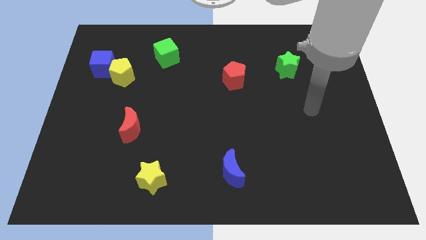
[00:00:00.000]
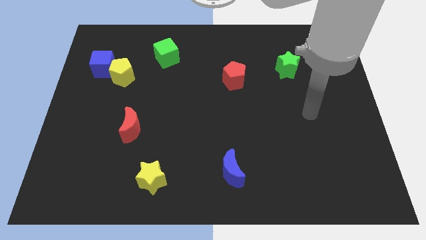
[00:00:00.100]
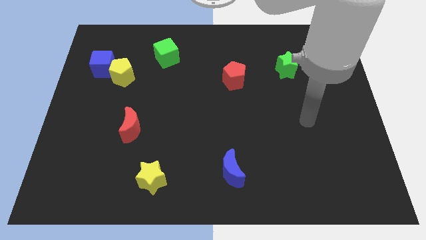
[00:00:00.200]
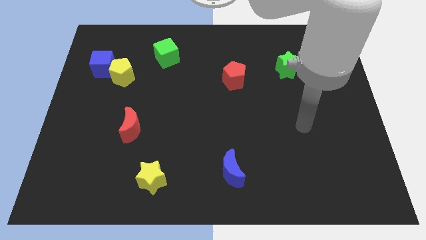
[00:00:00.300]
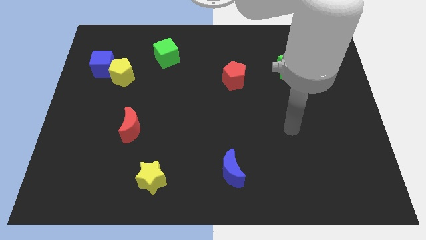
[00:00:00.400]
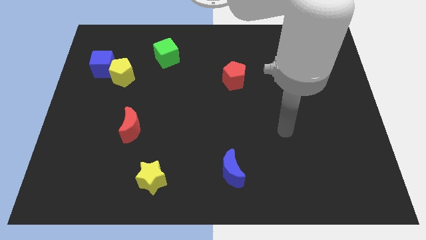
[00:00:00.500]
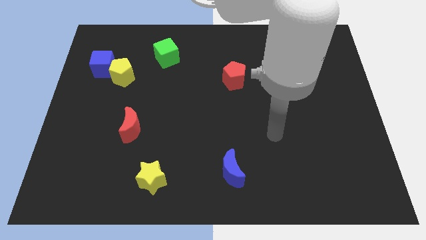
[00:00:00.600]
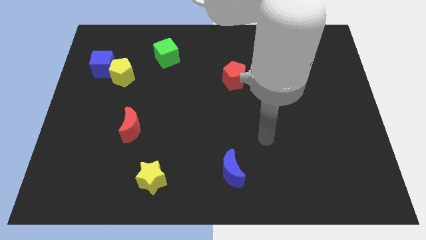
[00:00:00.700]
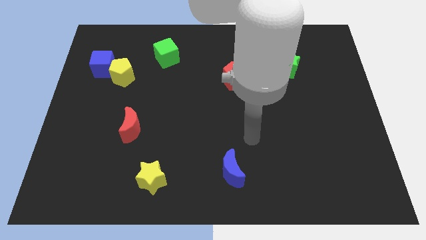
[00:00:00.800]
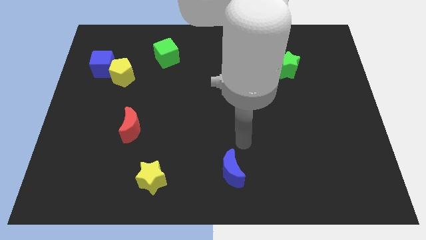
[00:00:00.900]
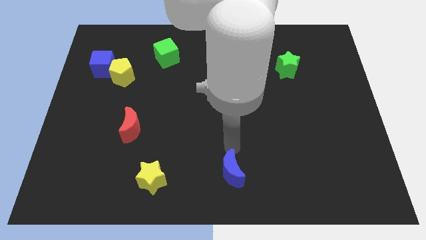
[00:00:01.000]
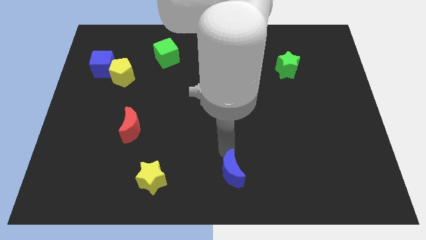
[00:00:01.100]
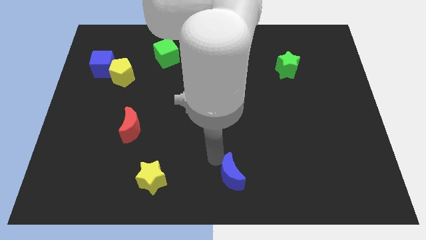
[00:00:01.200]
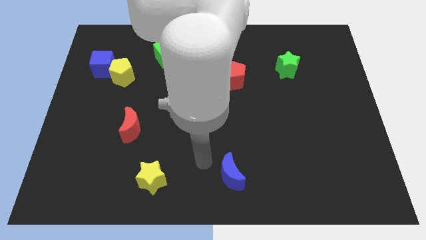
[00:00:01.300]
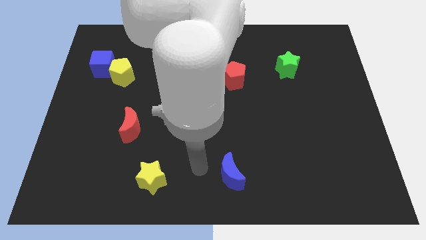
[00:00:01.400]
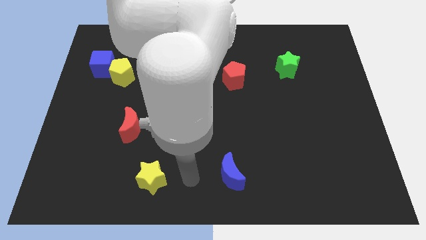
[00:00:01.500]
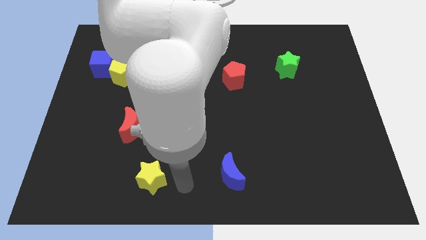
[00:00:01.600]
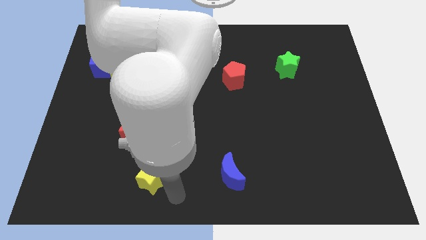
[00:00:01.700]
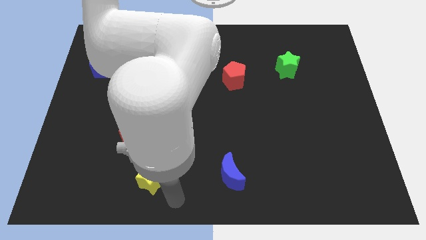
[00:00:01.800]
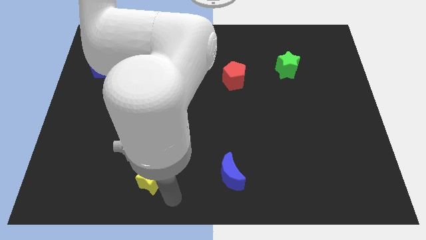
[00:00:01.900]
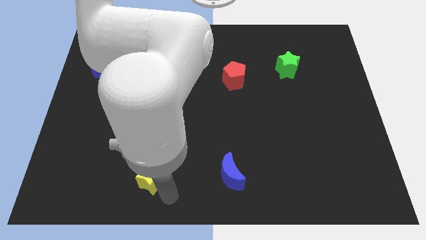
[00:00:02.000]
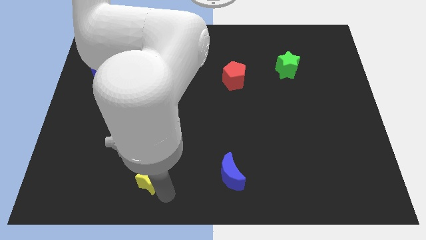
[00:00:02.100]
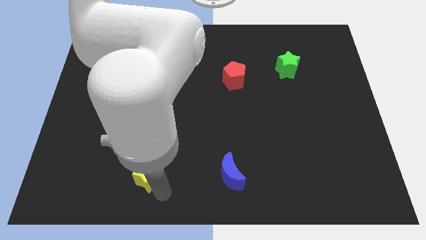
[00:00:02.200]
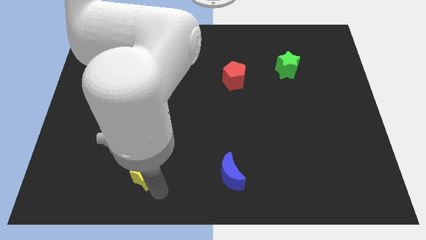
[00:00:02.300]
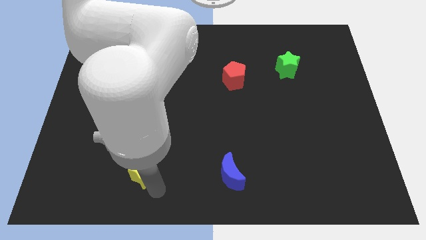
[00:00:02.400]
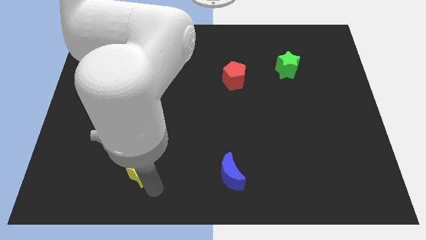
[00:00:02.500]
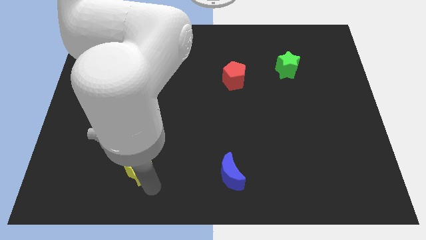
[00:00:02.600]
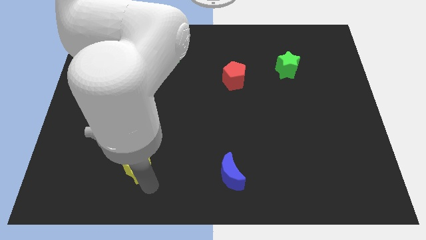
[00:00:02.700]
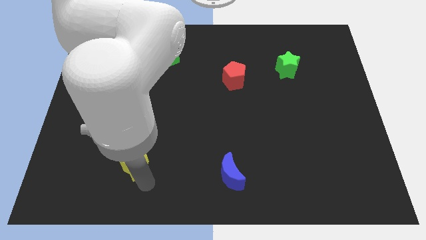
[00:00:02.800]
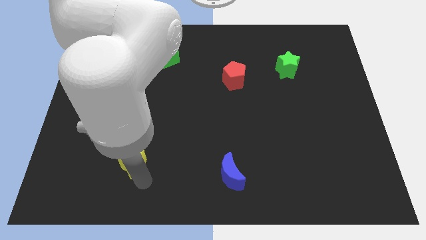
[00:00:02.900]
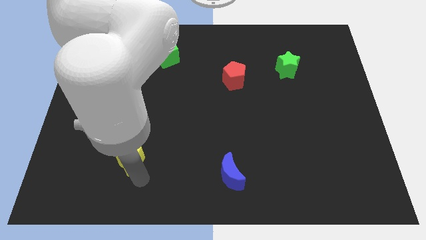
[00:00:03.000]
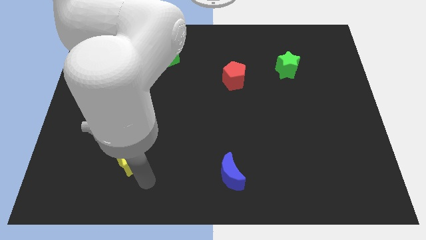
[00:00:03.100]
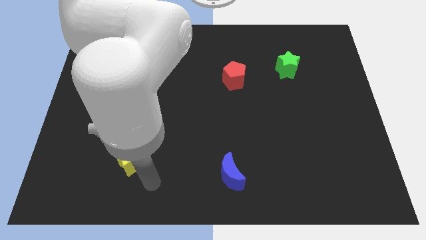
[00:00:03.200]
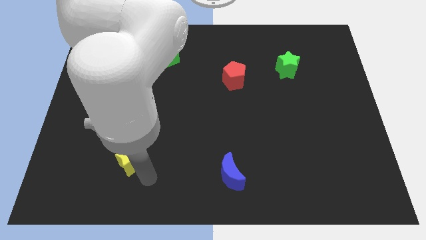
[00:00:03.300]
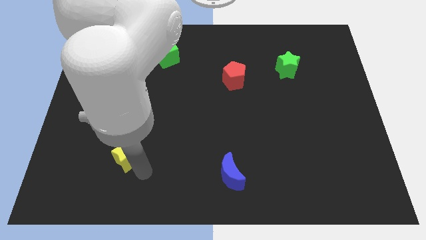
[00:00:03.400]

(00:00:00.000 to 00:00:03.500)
slightly move the yellow star diagonally up and to the left

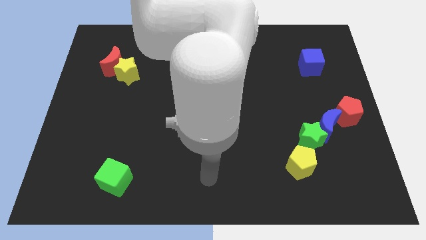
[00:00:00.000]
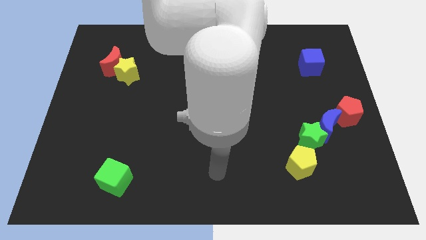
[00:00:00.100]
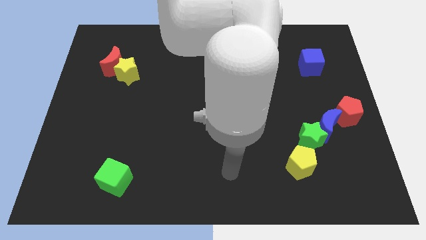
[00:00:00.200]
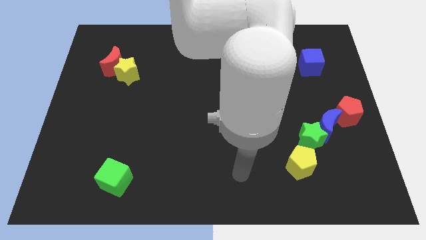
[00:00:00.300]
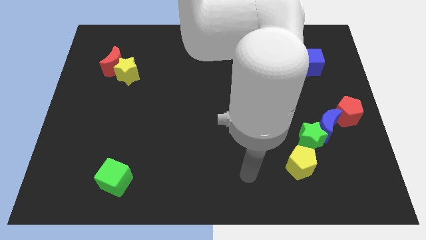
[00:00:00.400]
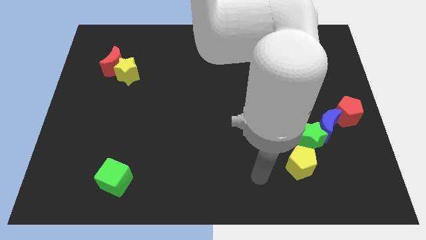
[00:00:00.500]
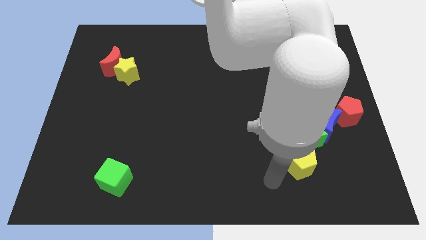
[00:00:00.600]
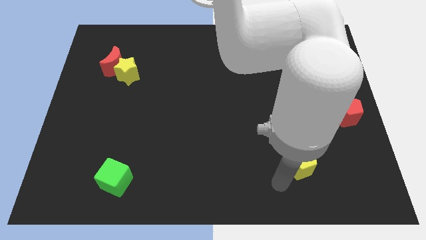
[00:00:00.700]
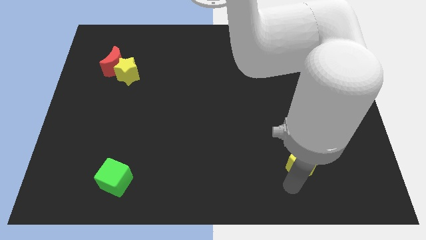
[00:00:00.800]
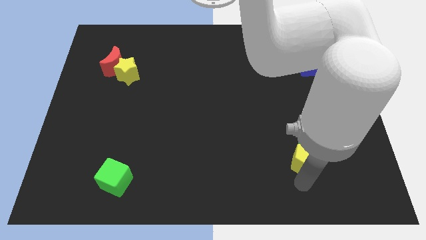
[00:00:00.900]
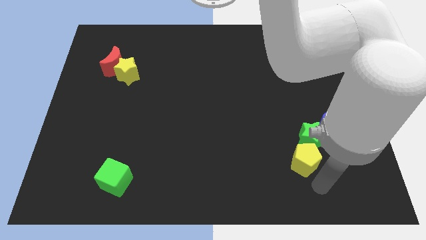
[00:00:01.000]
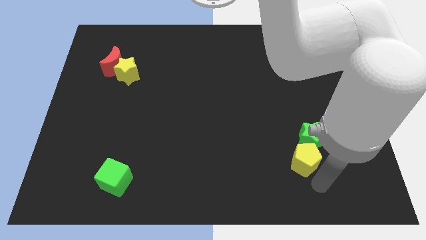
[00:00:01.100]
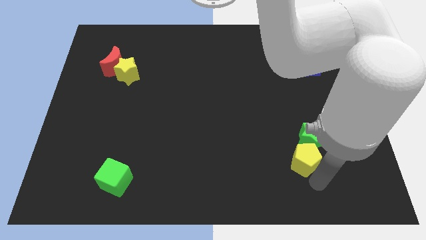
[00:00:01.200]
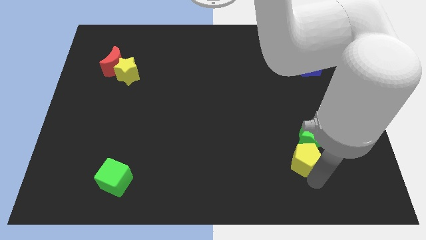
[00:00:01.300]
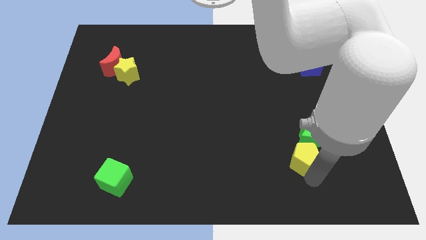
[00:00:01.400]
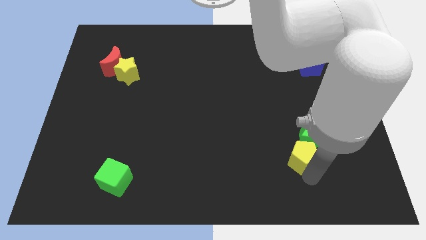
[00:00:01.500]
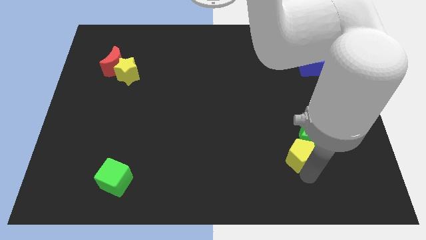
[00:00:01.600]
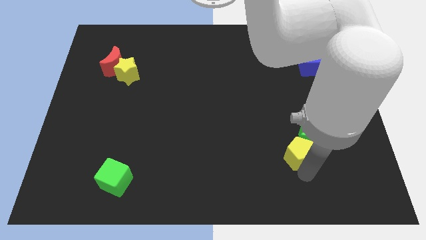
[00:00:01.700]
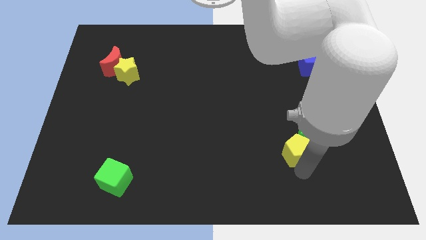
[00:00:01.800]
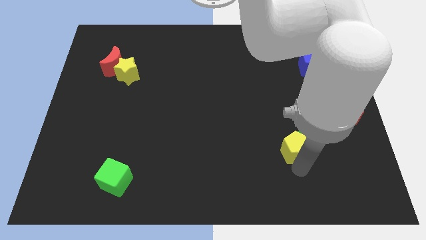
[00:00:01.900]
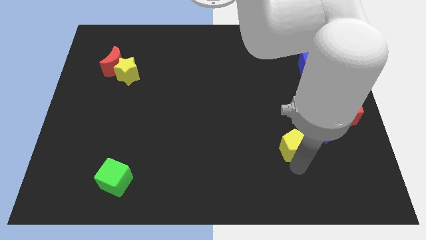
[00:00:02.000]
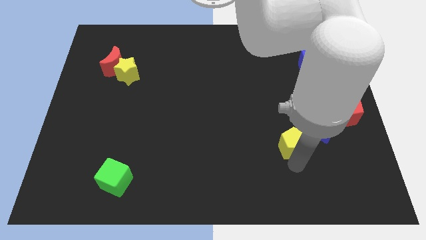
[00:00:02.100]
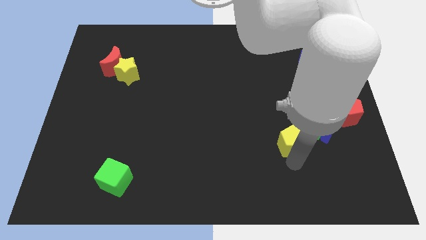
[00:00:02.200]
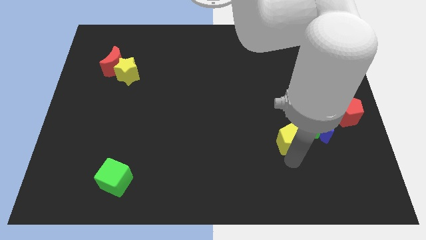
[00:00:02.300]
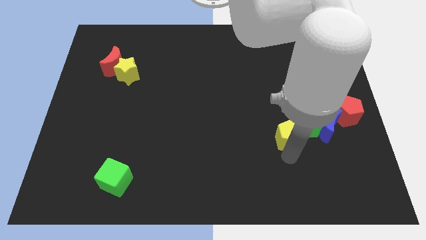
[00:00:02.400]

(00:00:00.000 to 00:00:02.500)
slightly slide the yellow pentagon up

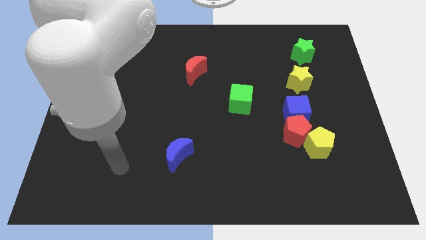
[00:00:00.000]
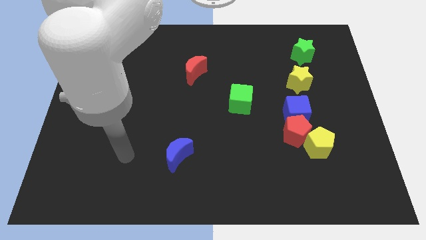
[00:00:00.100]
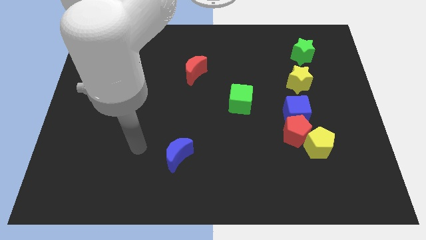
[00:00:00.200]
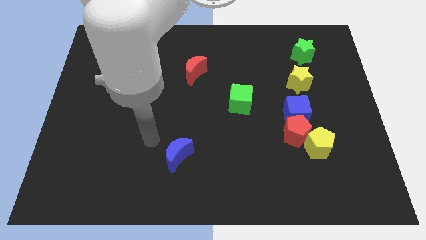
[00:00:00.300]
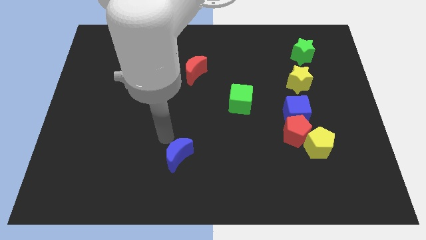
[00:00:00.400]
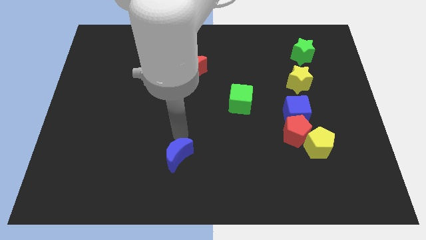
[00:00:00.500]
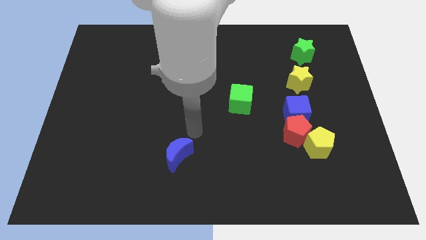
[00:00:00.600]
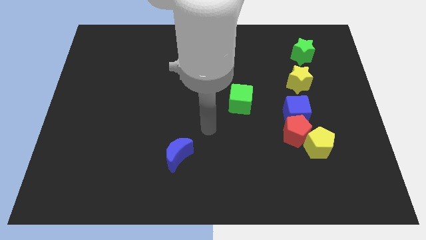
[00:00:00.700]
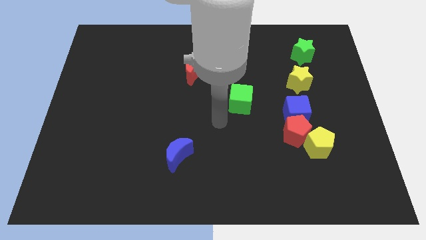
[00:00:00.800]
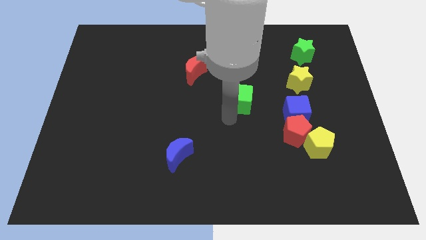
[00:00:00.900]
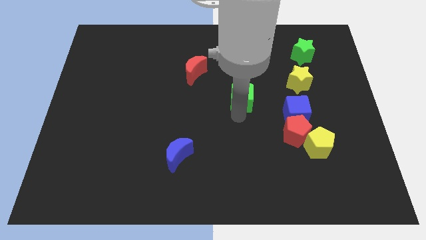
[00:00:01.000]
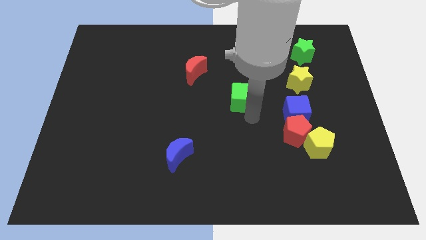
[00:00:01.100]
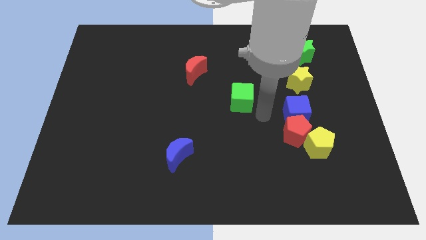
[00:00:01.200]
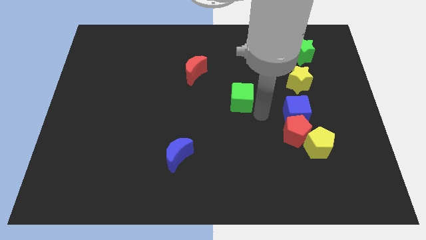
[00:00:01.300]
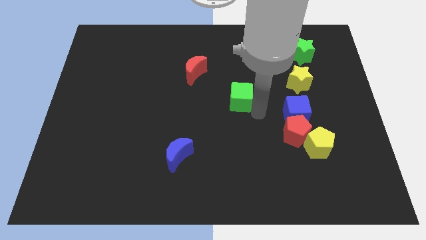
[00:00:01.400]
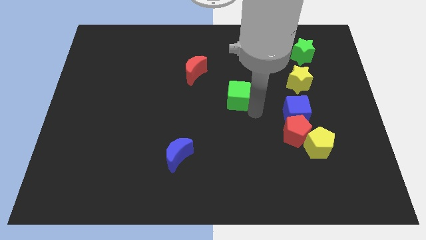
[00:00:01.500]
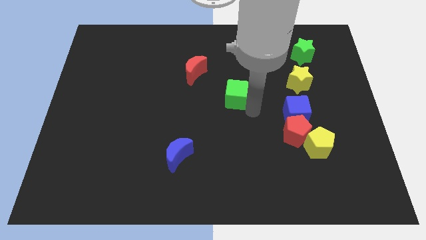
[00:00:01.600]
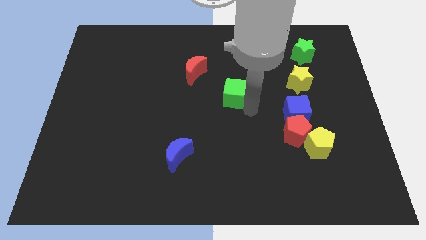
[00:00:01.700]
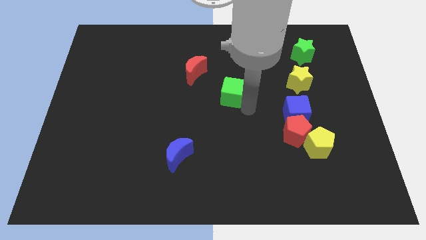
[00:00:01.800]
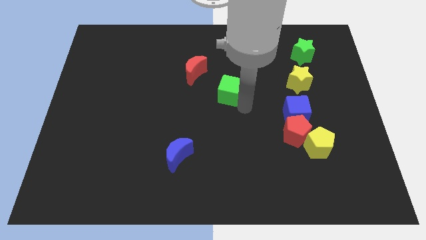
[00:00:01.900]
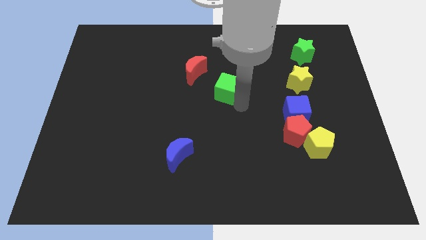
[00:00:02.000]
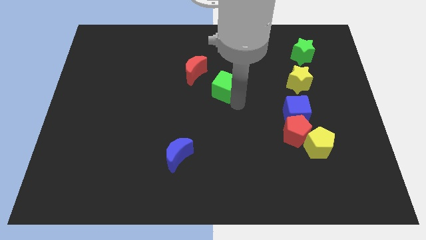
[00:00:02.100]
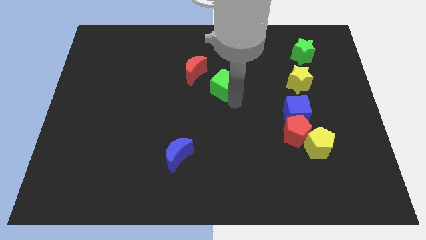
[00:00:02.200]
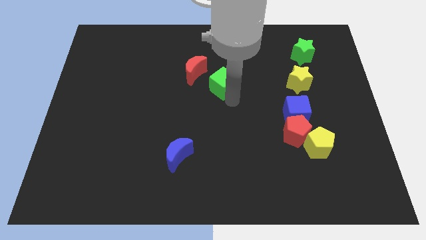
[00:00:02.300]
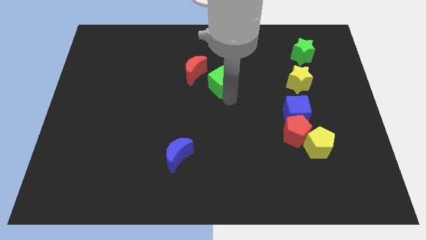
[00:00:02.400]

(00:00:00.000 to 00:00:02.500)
slide the green cube a bit upwards and left
